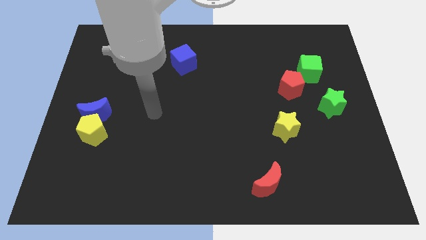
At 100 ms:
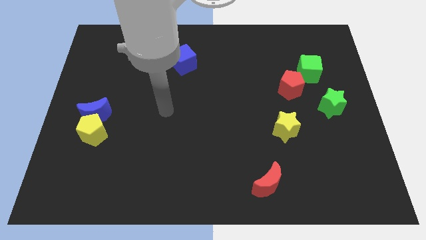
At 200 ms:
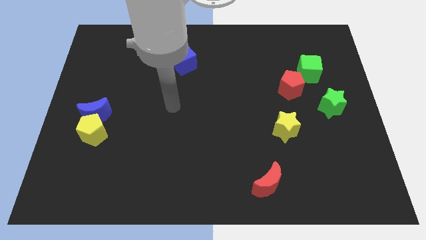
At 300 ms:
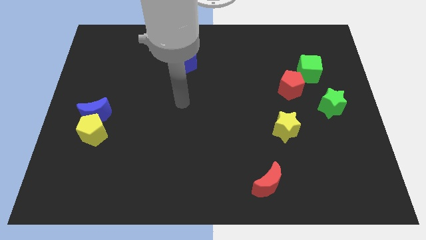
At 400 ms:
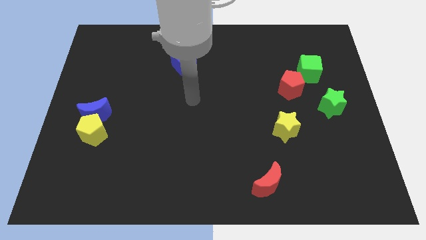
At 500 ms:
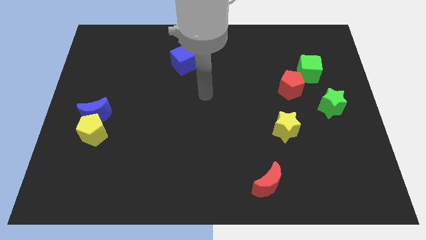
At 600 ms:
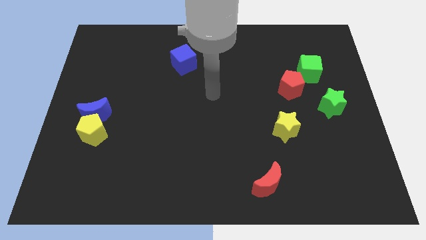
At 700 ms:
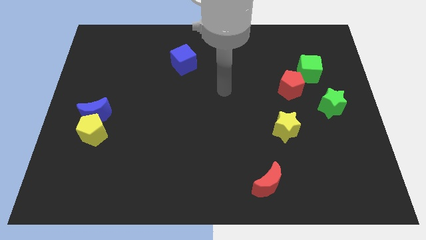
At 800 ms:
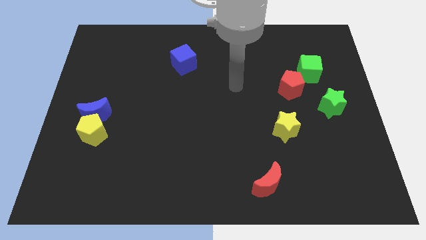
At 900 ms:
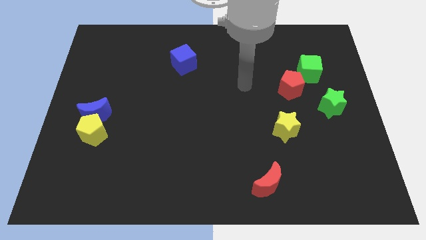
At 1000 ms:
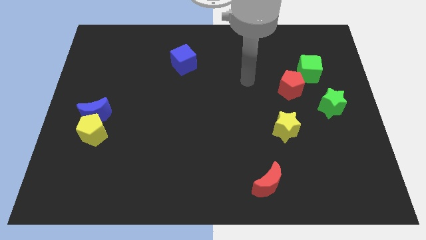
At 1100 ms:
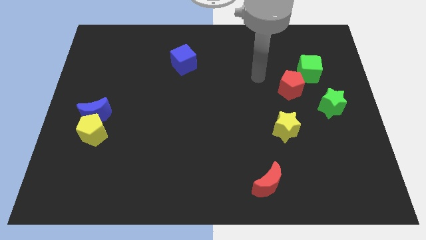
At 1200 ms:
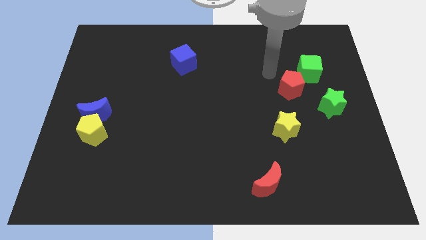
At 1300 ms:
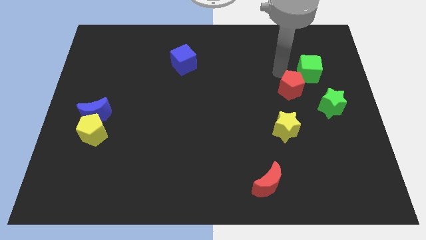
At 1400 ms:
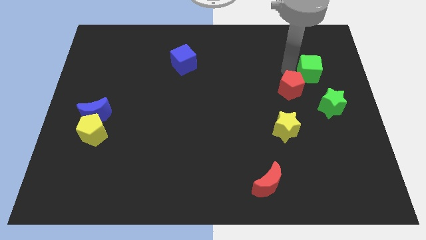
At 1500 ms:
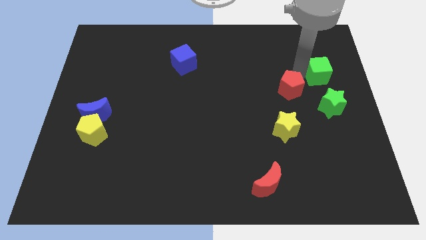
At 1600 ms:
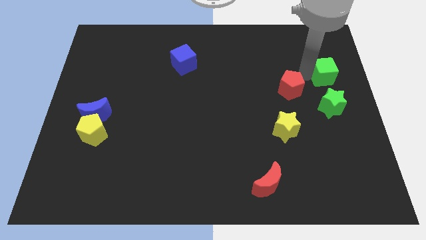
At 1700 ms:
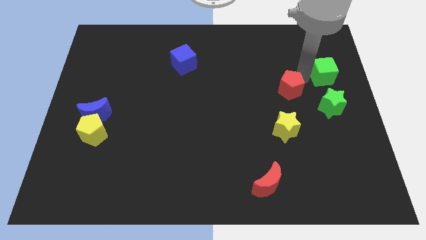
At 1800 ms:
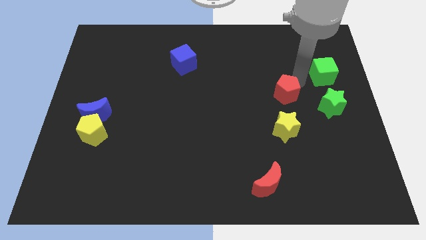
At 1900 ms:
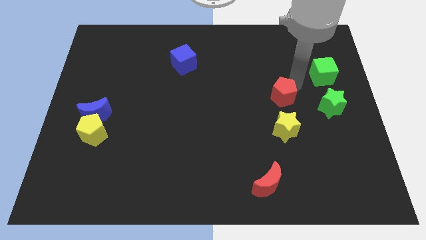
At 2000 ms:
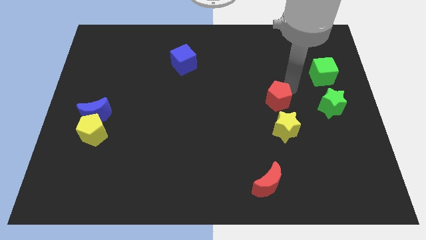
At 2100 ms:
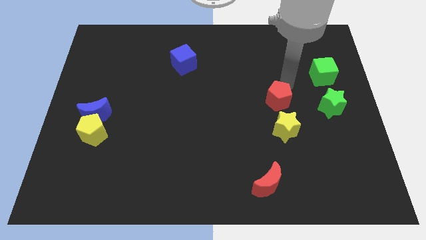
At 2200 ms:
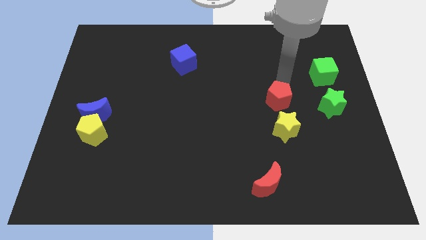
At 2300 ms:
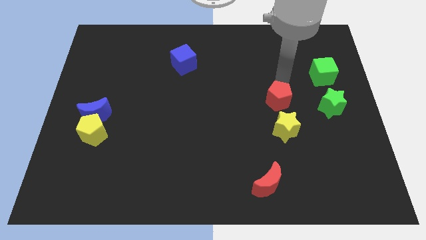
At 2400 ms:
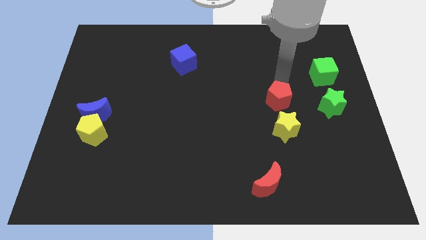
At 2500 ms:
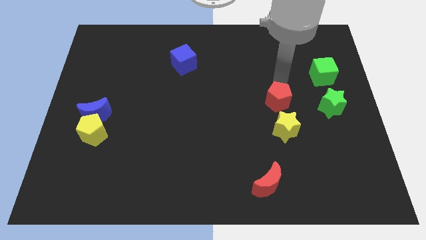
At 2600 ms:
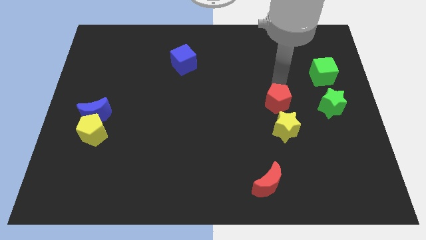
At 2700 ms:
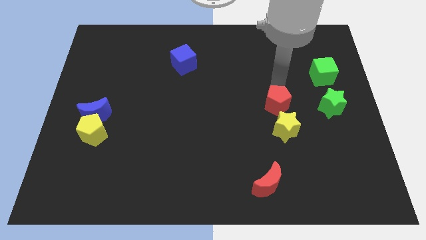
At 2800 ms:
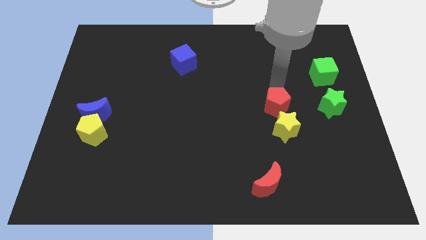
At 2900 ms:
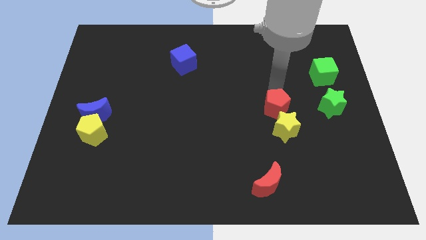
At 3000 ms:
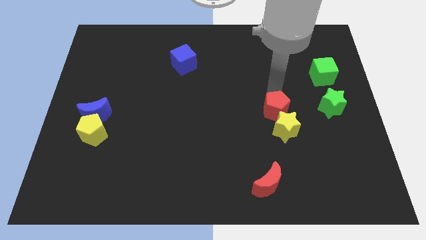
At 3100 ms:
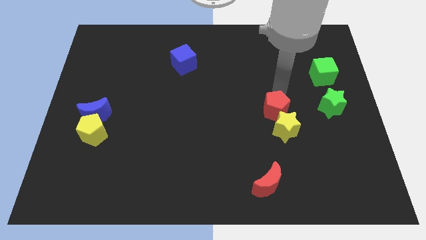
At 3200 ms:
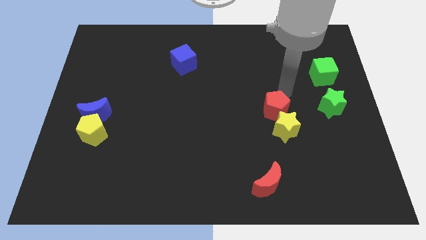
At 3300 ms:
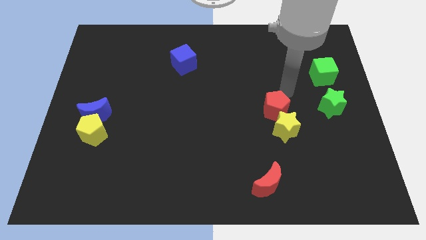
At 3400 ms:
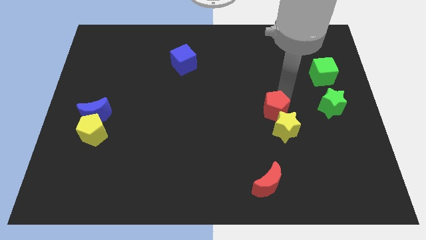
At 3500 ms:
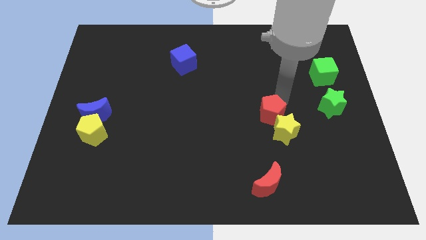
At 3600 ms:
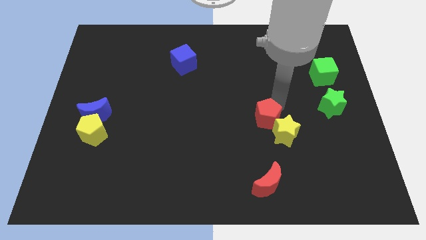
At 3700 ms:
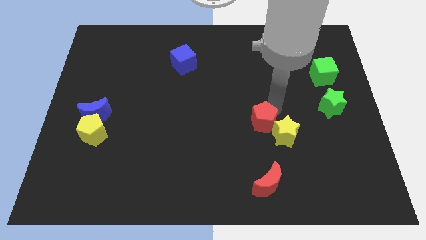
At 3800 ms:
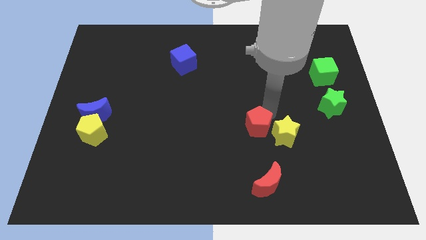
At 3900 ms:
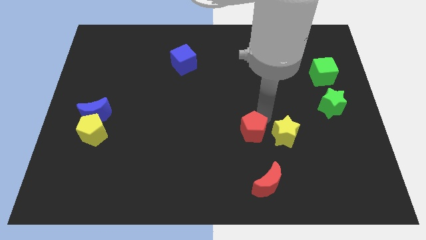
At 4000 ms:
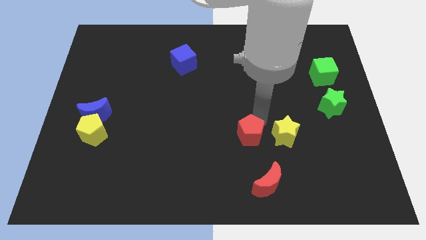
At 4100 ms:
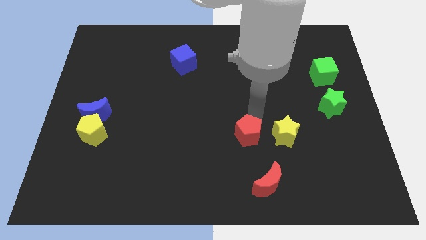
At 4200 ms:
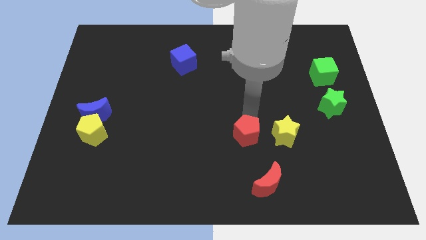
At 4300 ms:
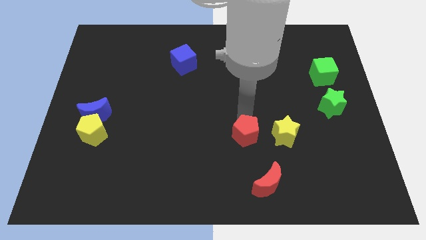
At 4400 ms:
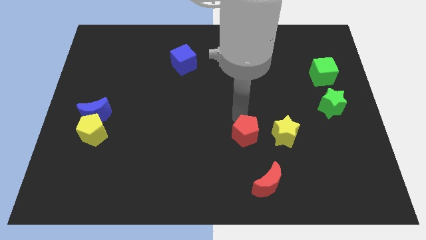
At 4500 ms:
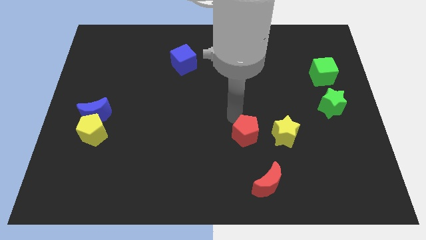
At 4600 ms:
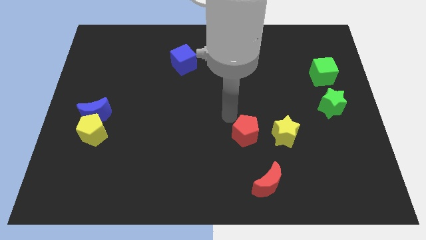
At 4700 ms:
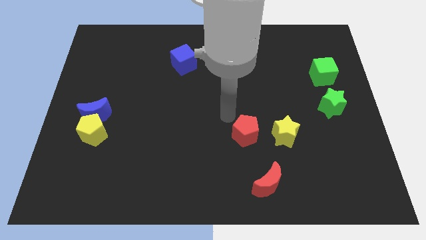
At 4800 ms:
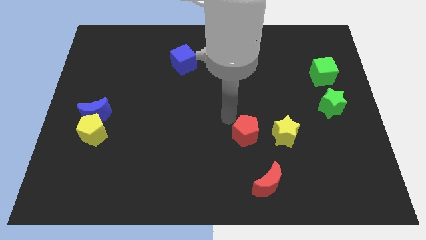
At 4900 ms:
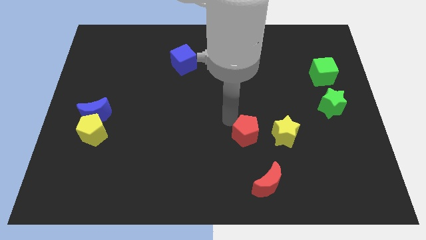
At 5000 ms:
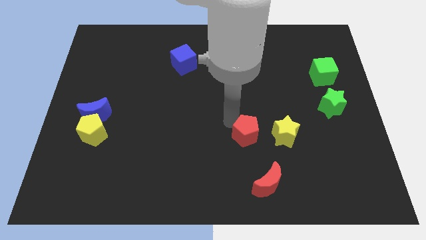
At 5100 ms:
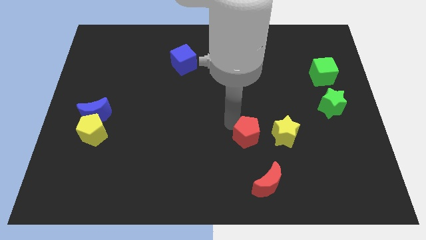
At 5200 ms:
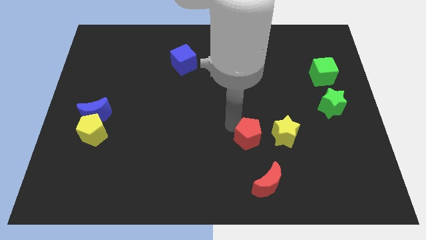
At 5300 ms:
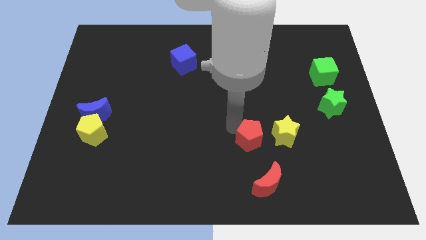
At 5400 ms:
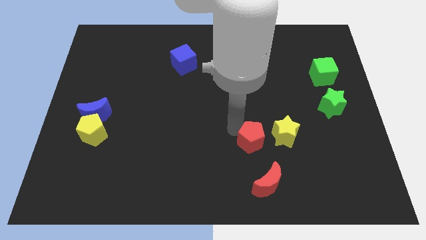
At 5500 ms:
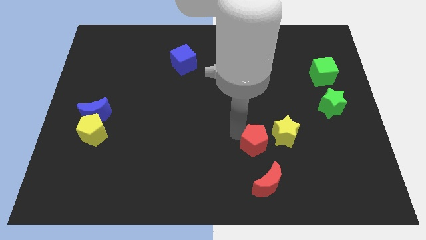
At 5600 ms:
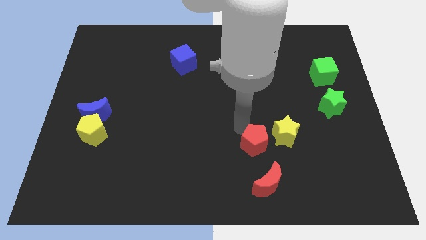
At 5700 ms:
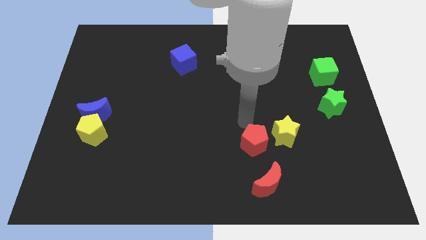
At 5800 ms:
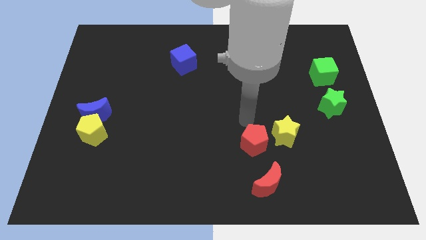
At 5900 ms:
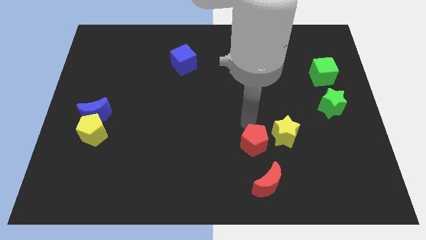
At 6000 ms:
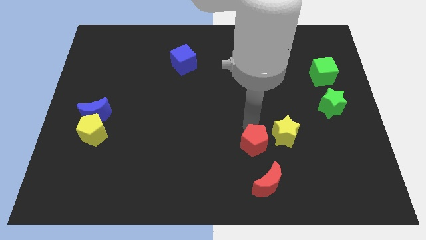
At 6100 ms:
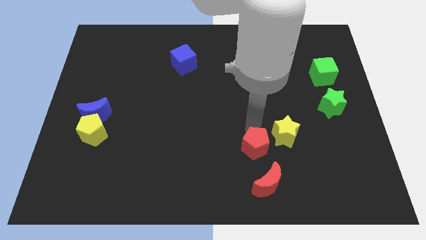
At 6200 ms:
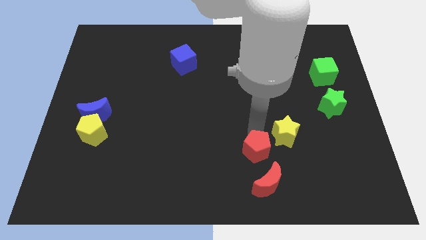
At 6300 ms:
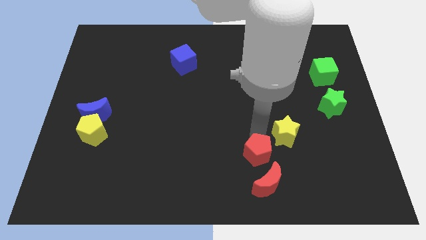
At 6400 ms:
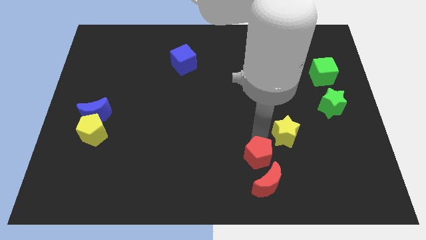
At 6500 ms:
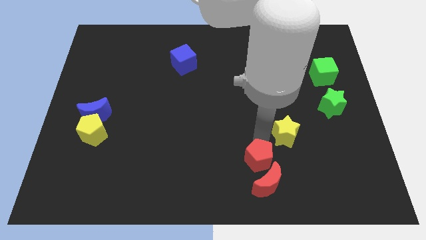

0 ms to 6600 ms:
put the red pentagon towards the red moon

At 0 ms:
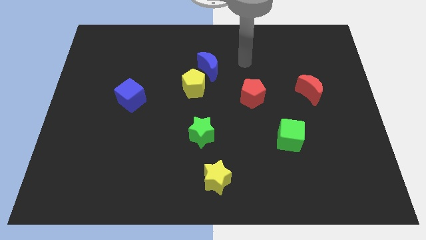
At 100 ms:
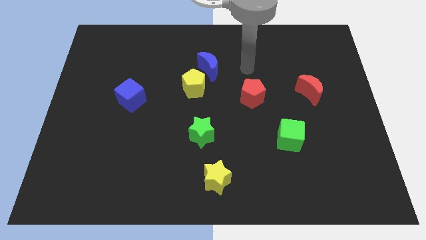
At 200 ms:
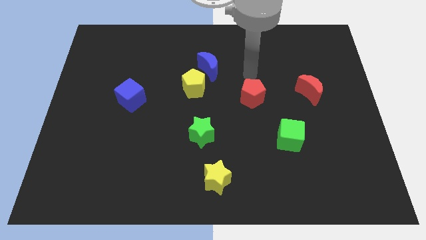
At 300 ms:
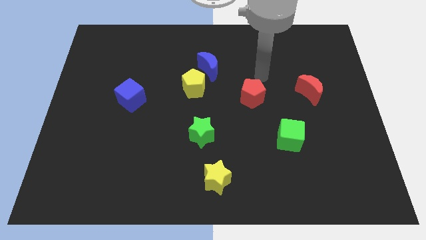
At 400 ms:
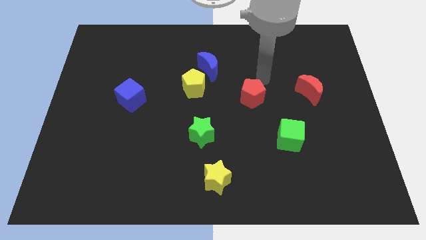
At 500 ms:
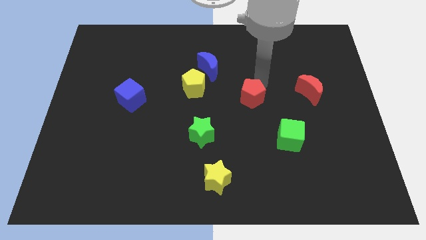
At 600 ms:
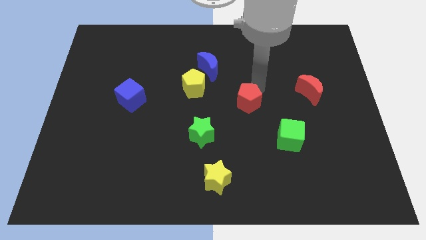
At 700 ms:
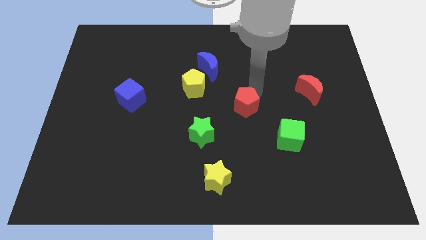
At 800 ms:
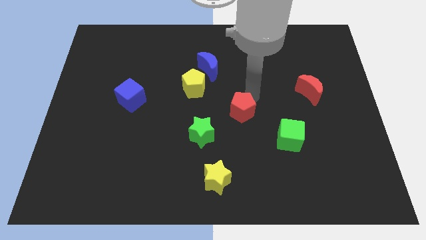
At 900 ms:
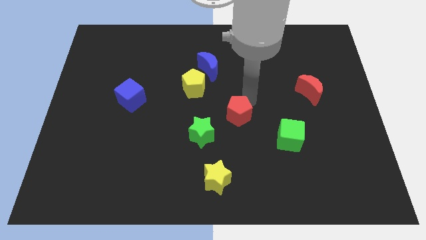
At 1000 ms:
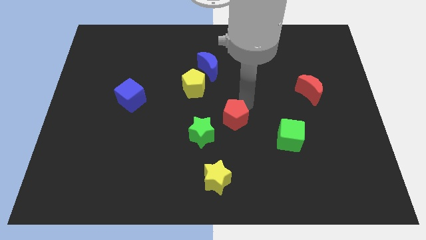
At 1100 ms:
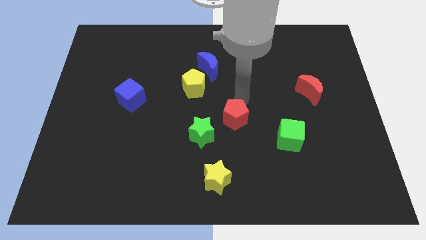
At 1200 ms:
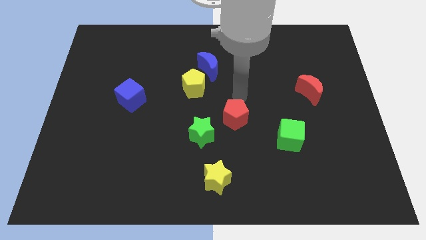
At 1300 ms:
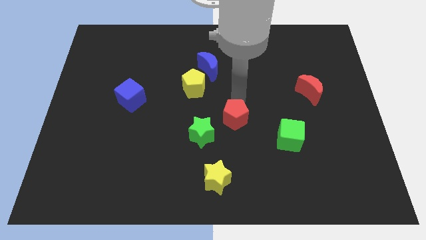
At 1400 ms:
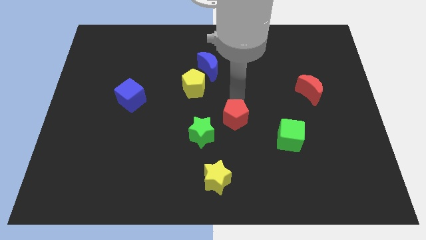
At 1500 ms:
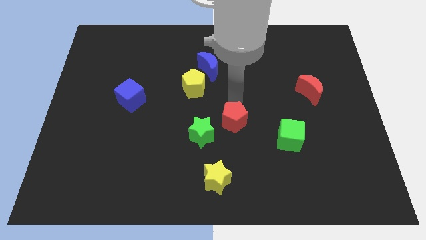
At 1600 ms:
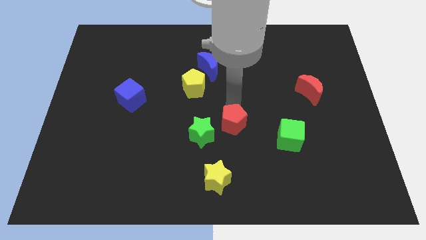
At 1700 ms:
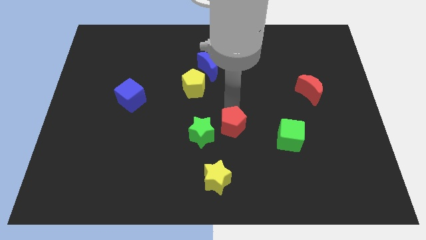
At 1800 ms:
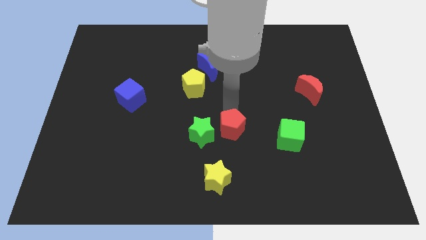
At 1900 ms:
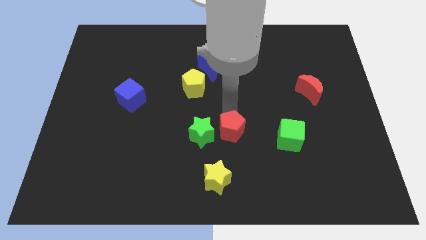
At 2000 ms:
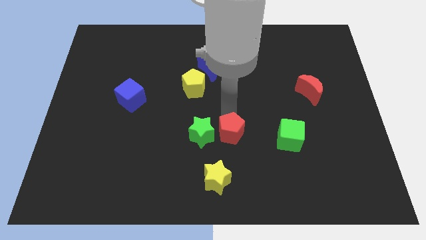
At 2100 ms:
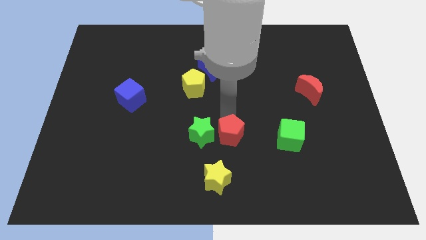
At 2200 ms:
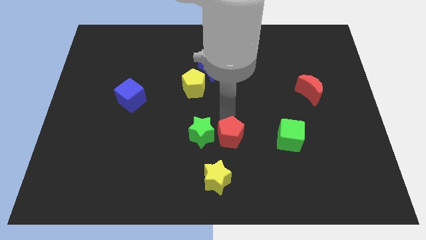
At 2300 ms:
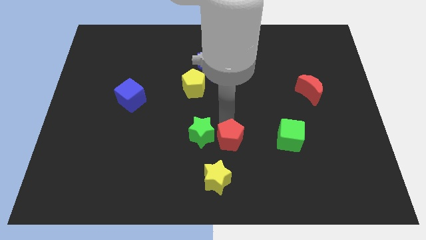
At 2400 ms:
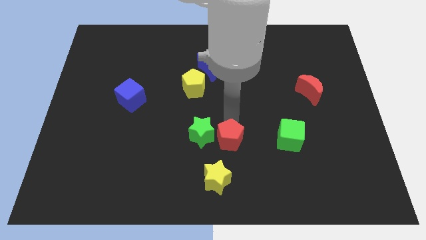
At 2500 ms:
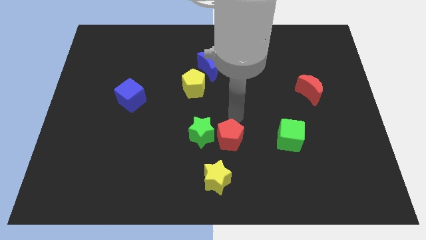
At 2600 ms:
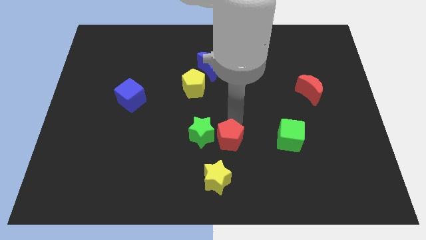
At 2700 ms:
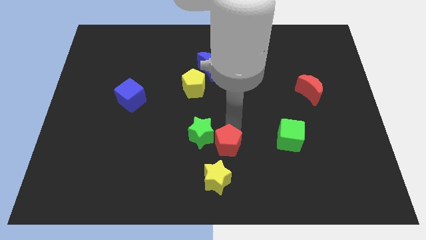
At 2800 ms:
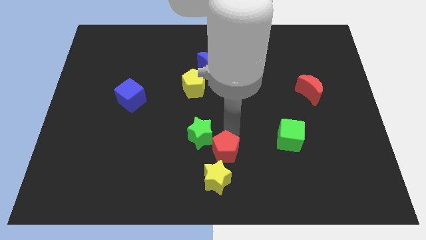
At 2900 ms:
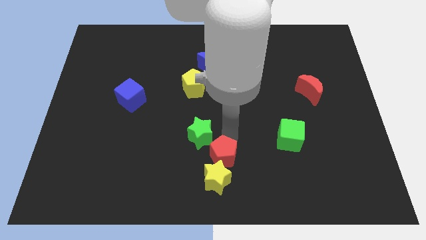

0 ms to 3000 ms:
push the red pentagon to the yellow star
